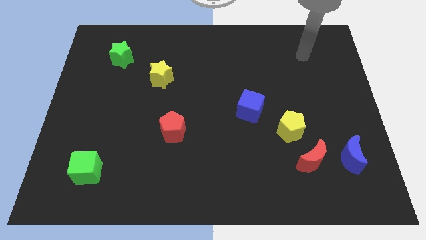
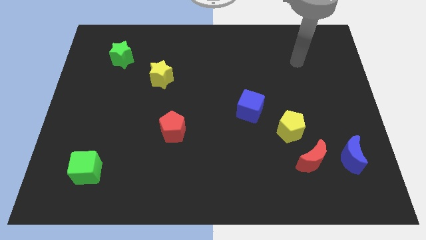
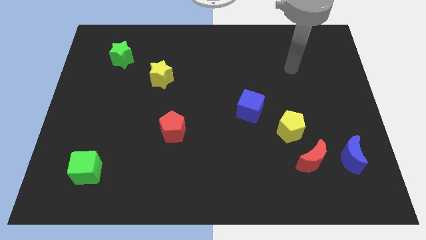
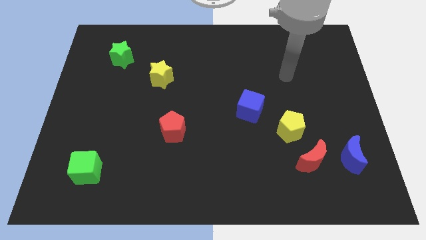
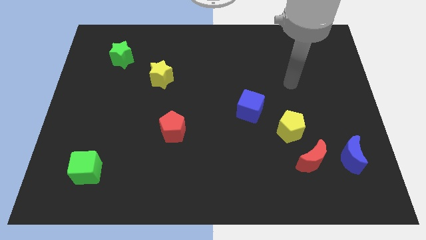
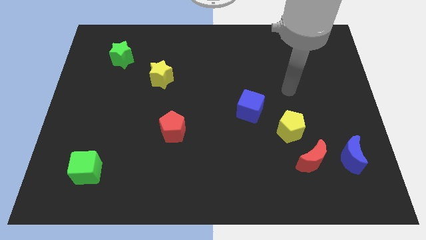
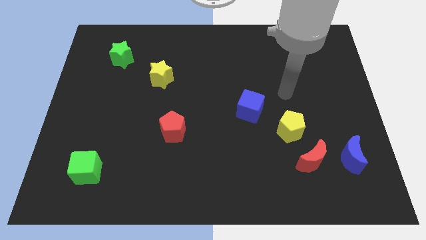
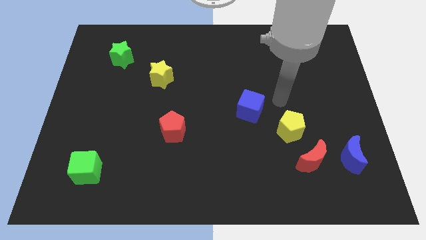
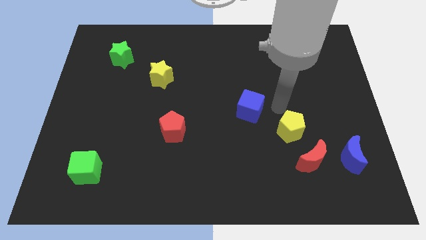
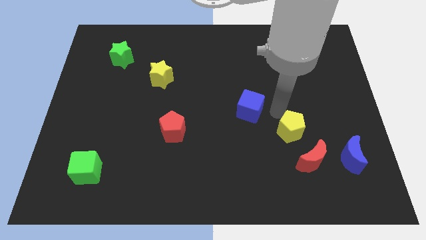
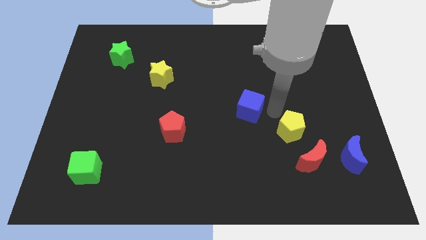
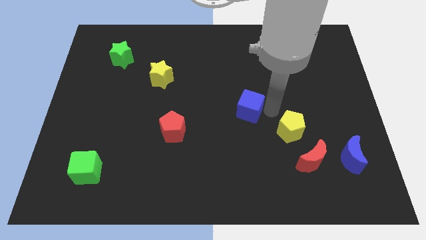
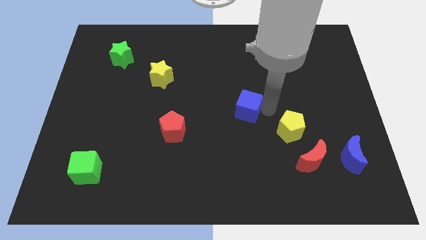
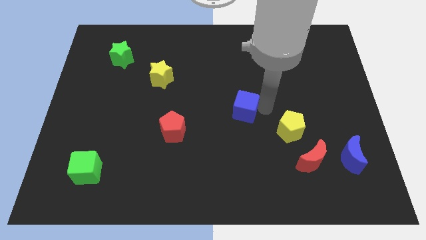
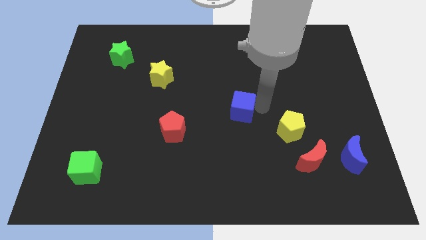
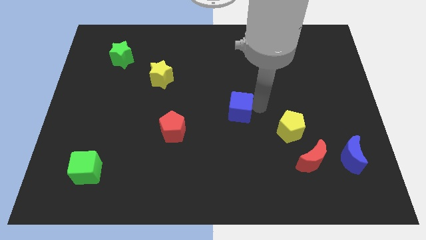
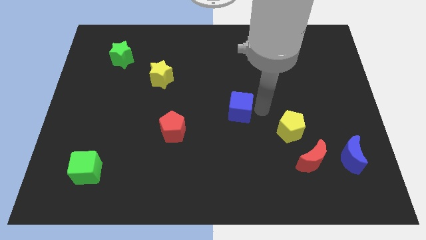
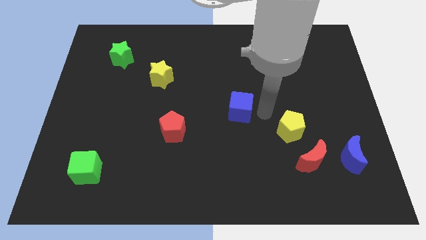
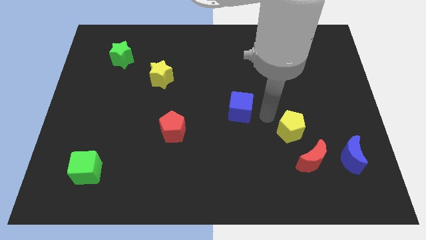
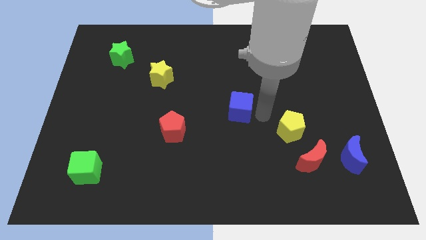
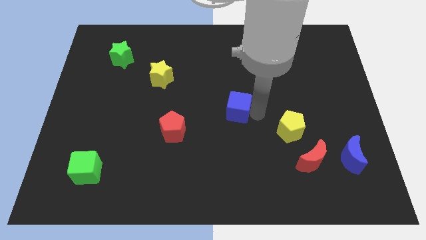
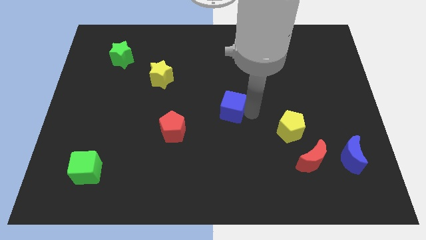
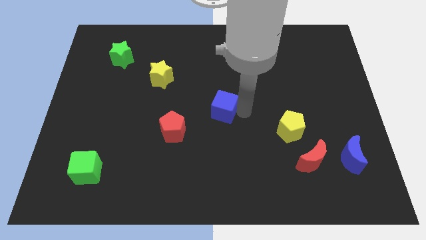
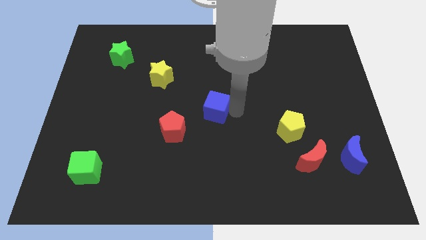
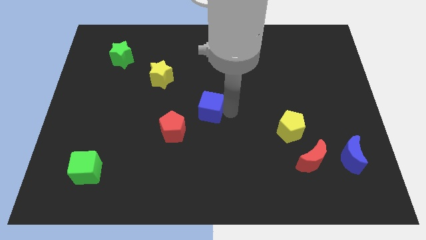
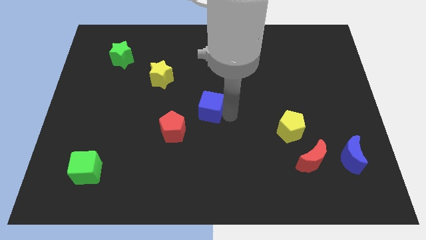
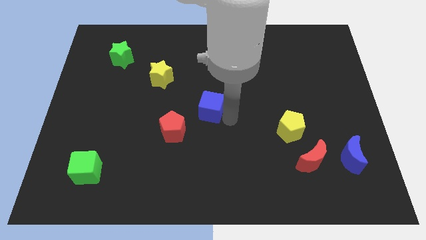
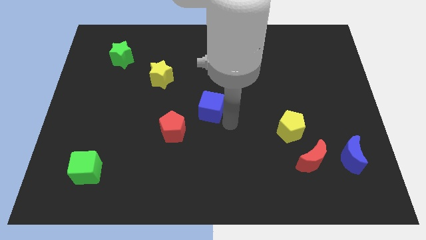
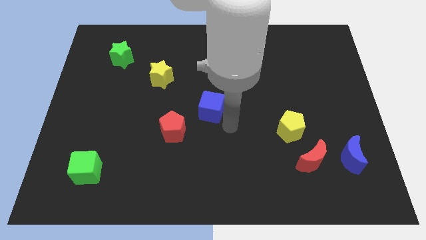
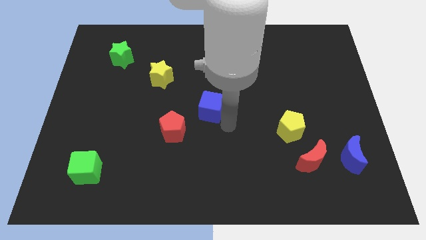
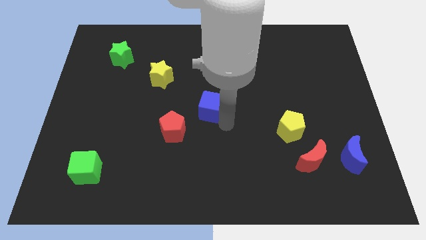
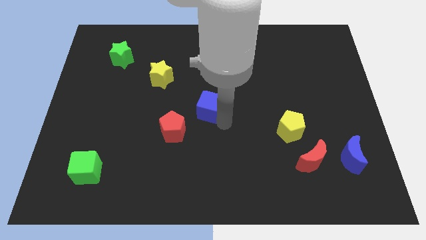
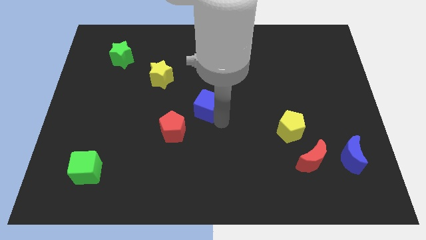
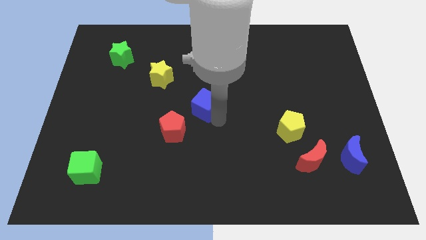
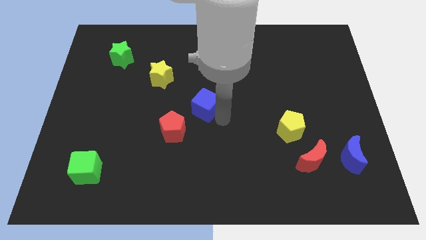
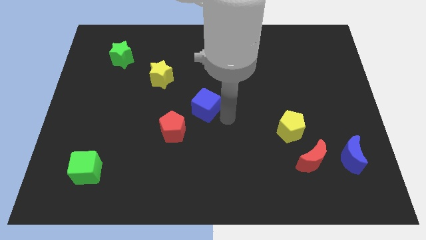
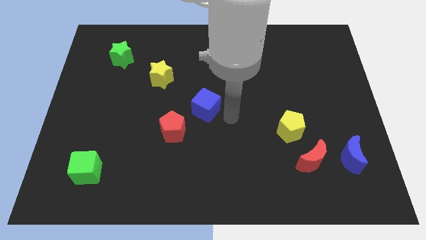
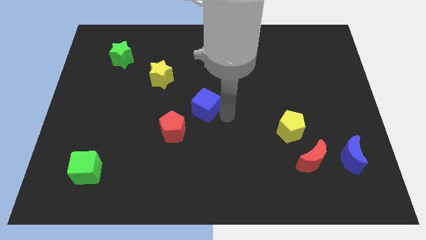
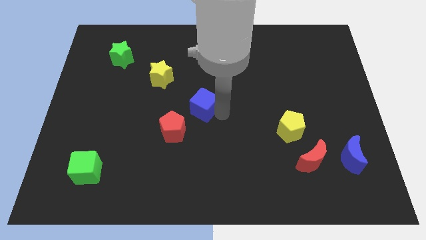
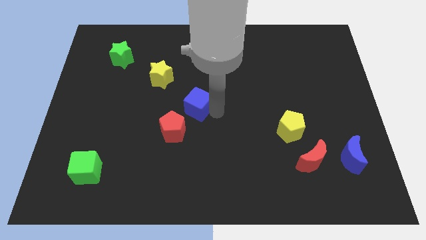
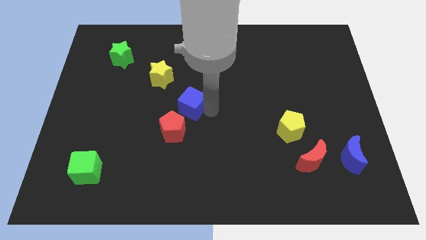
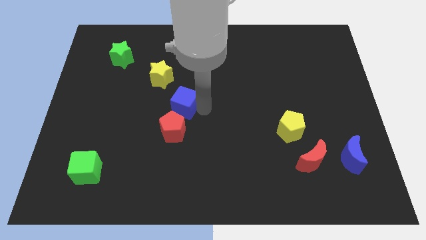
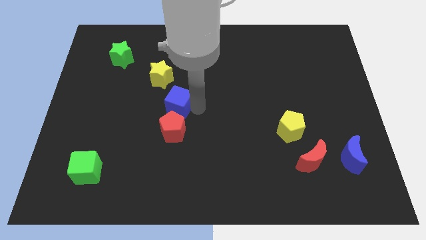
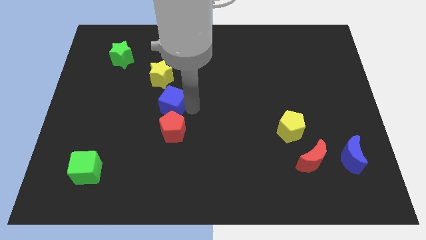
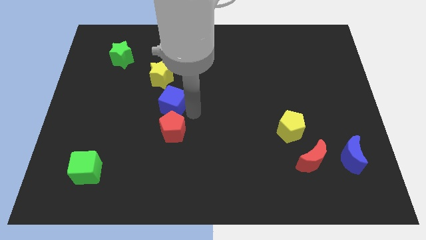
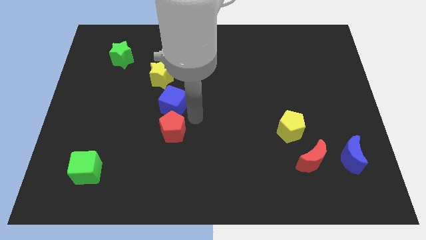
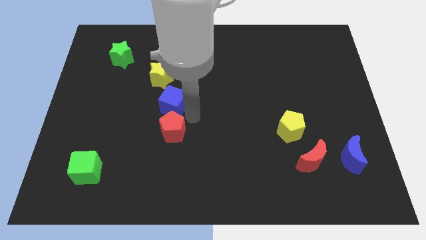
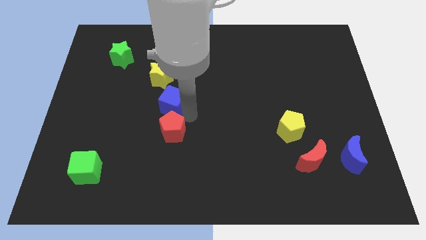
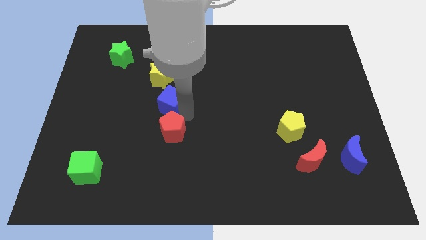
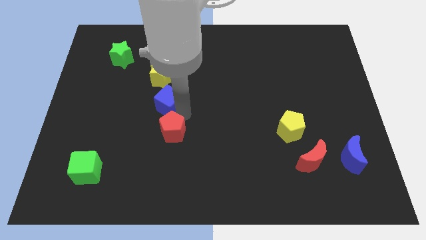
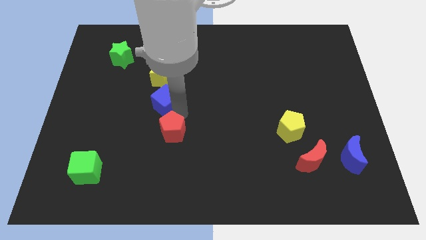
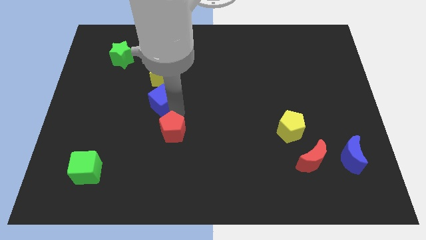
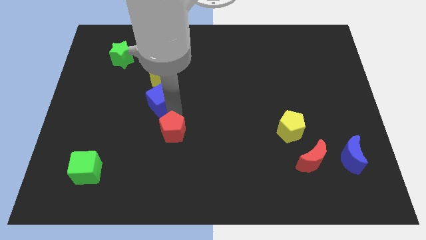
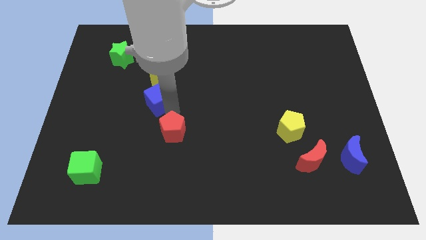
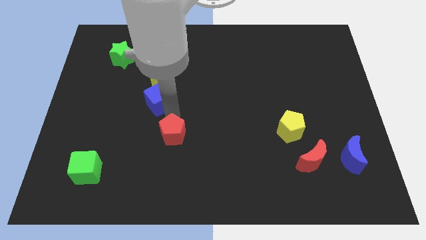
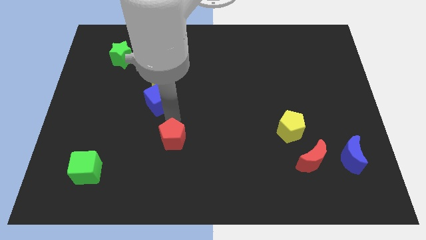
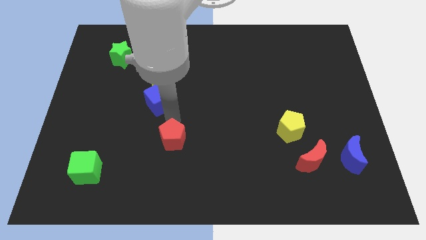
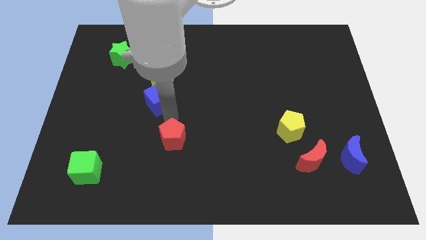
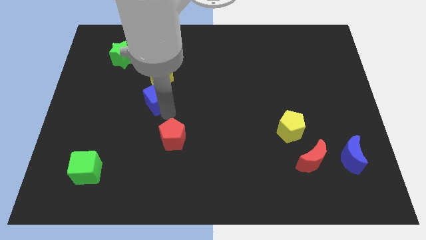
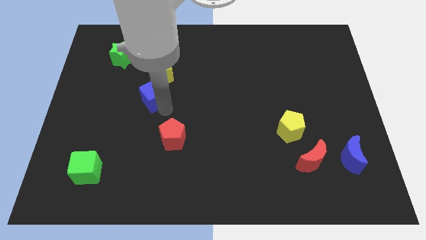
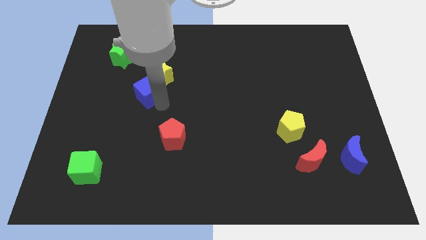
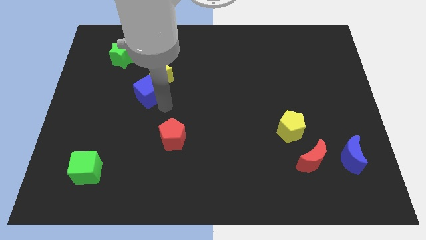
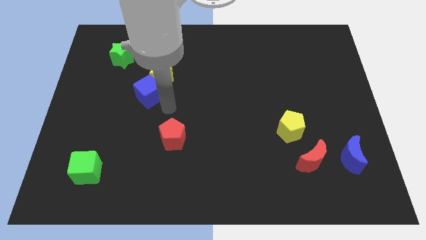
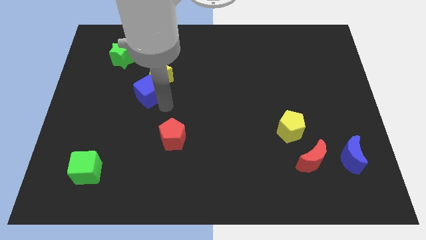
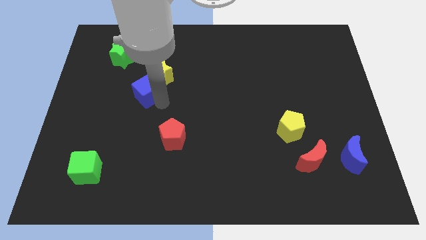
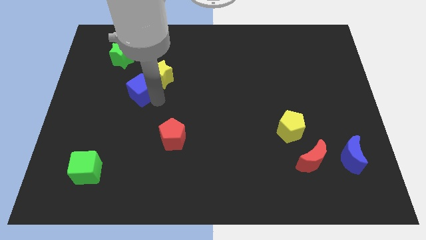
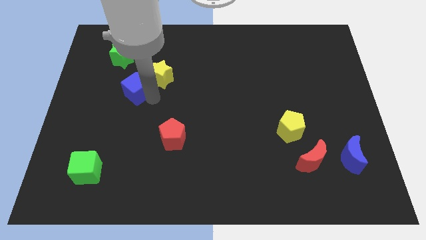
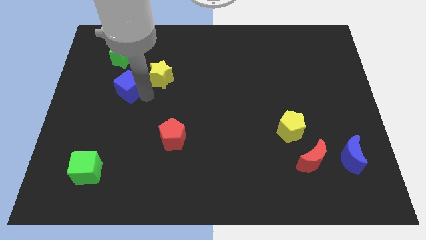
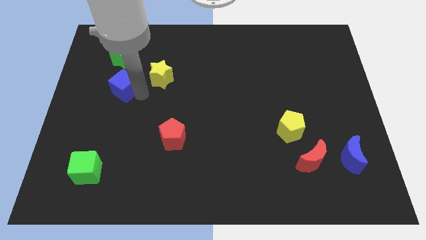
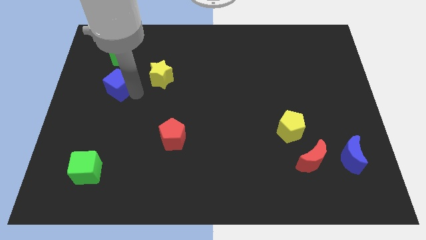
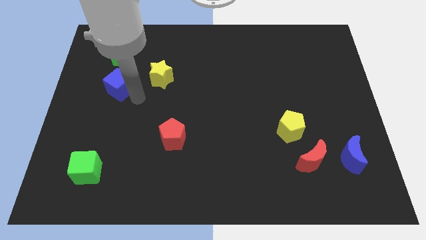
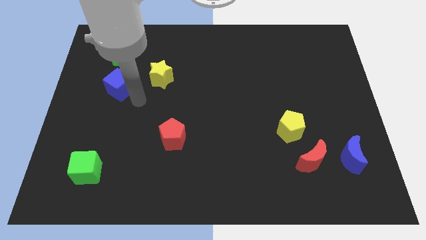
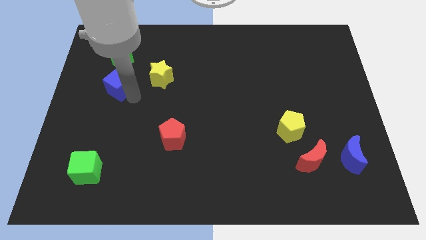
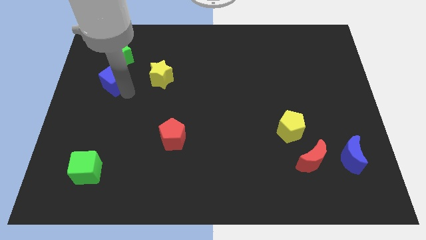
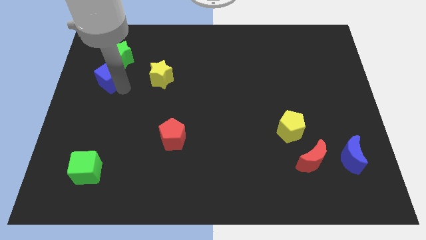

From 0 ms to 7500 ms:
push the blue cube to the bottom left of the green star

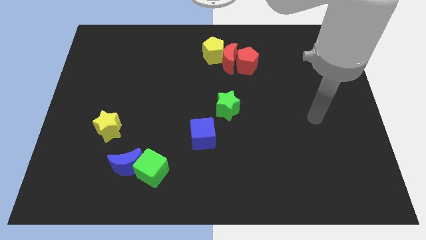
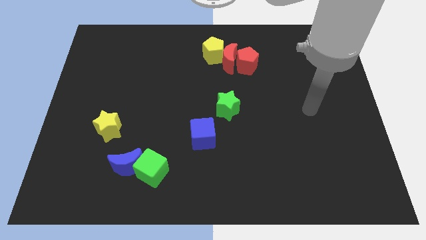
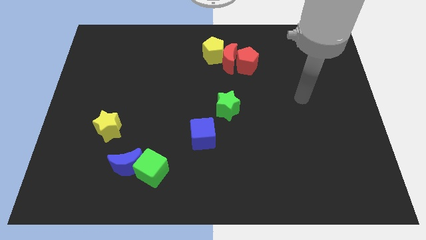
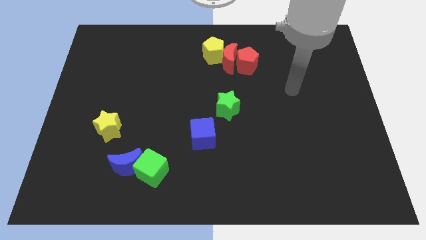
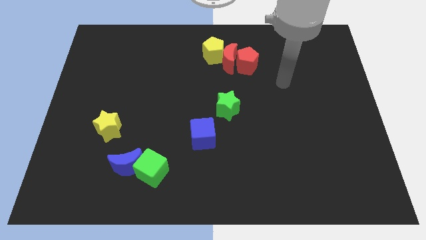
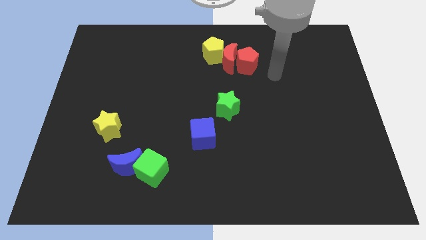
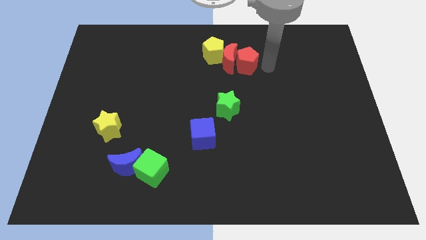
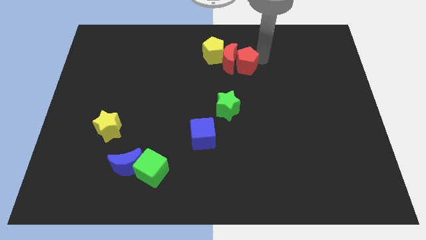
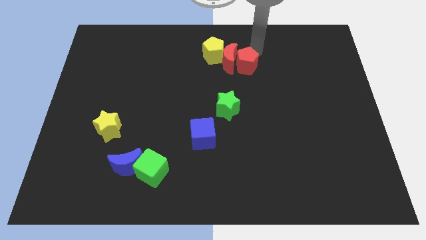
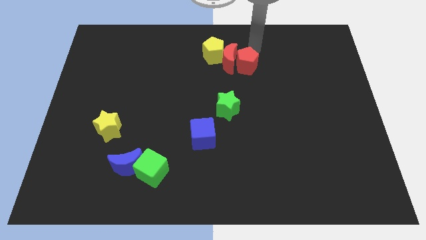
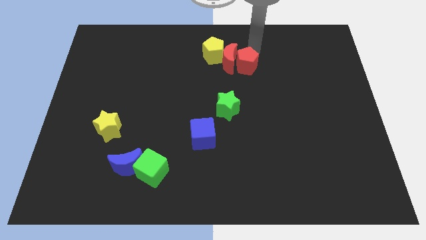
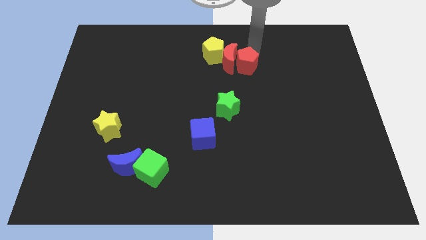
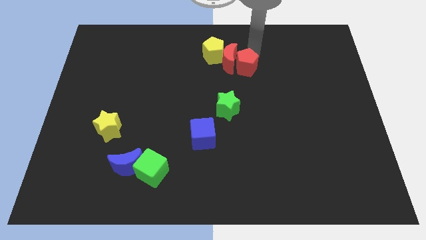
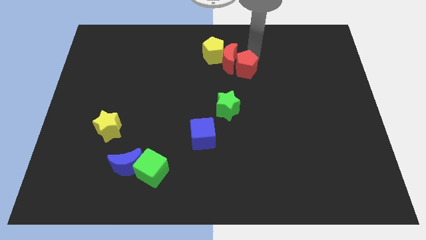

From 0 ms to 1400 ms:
put the red pentagon to the bottom side of the red moon
